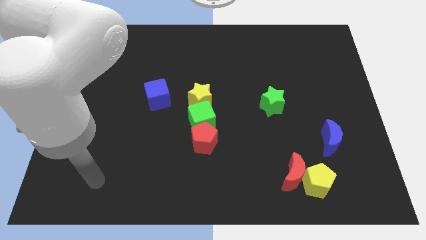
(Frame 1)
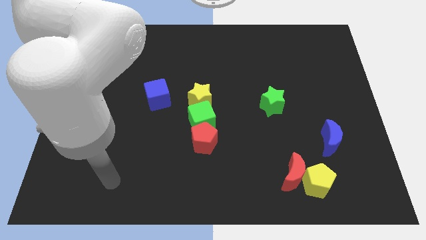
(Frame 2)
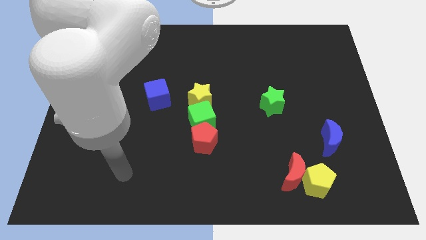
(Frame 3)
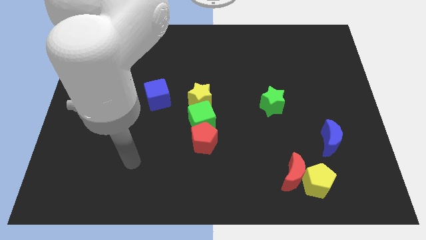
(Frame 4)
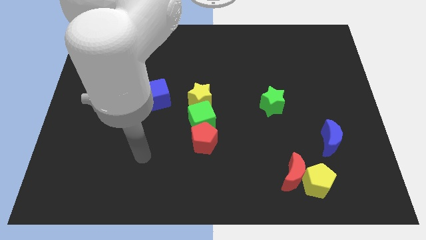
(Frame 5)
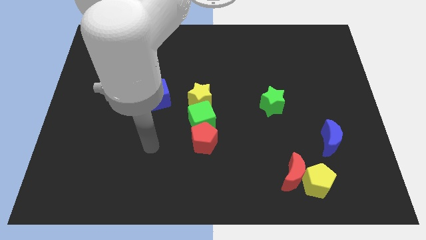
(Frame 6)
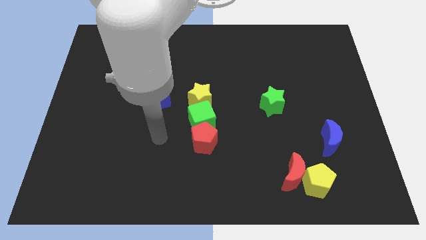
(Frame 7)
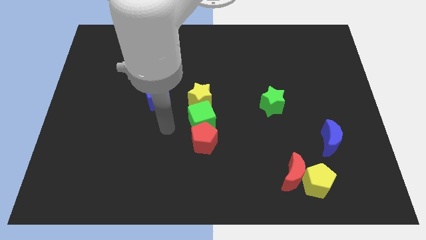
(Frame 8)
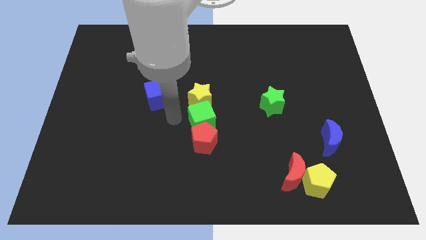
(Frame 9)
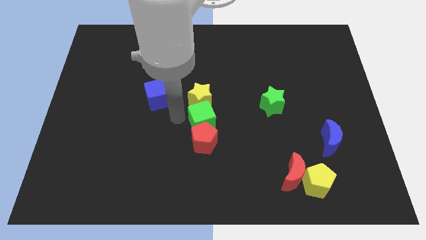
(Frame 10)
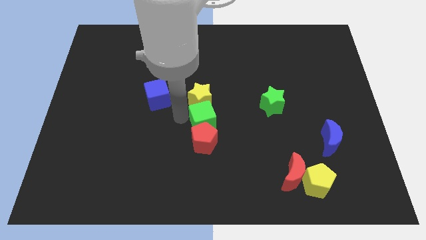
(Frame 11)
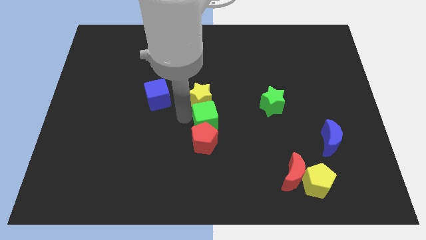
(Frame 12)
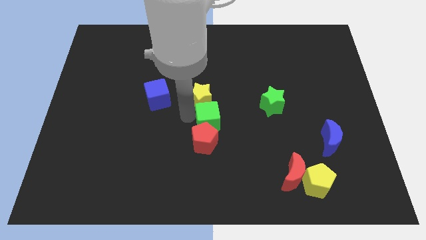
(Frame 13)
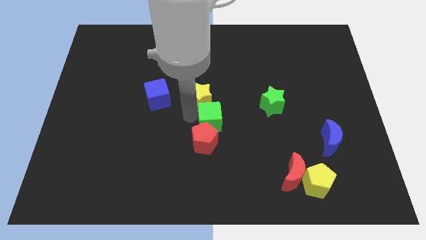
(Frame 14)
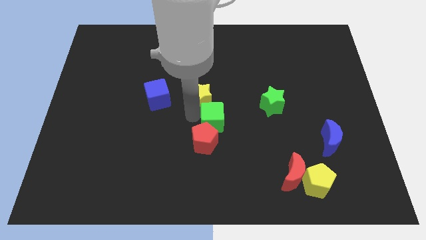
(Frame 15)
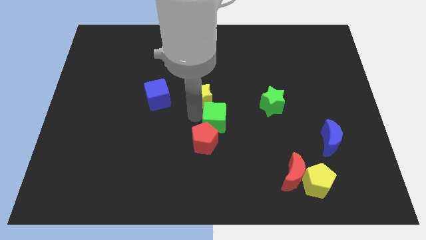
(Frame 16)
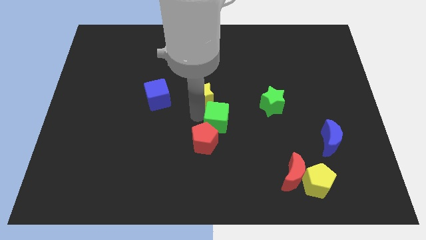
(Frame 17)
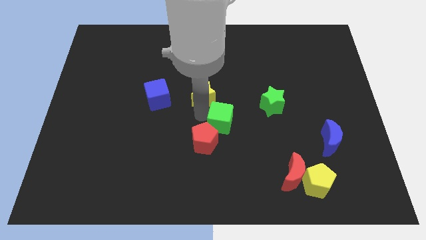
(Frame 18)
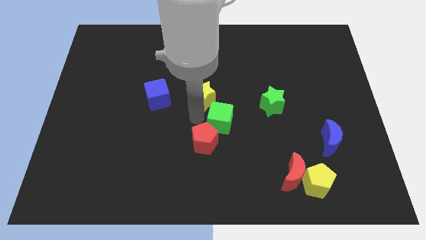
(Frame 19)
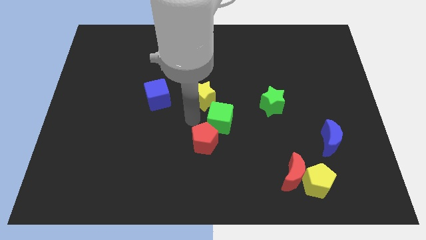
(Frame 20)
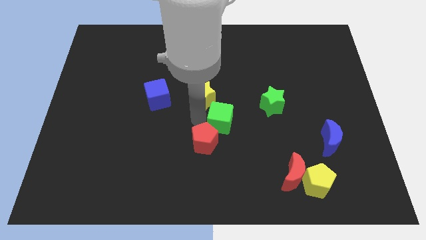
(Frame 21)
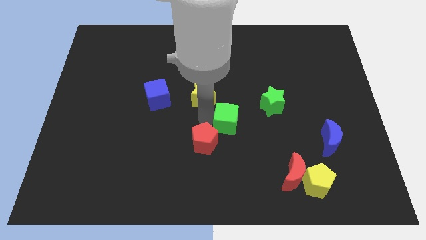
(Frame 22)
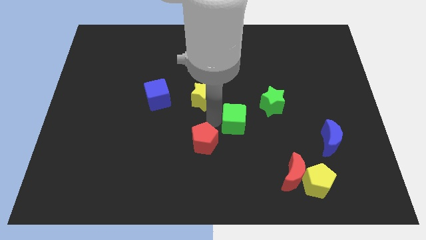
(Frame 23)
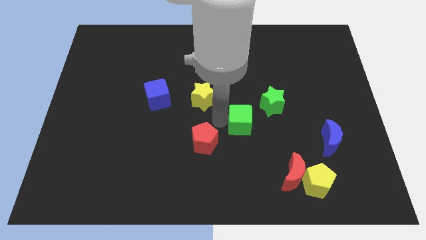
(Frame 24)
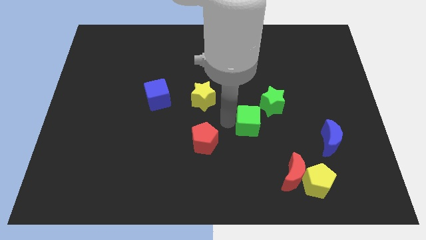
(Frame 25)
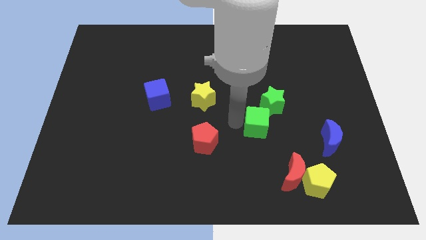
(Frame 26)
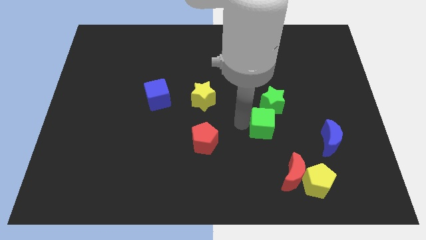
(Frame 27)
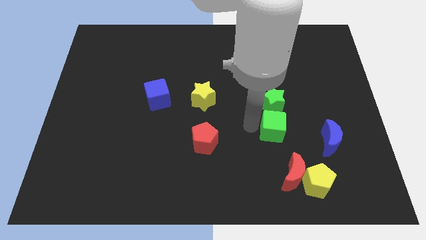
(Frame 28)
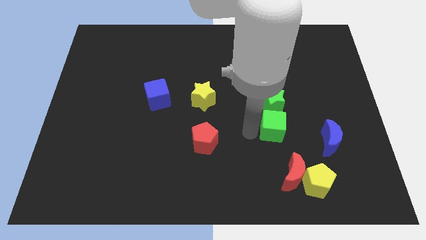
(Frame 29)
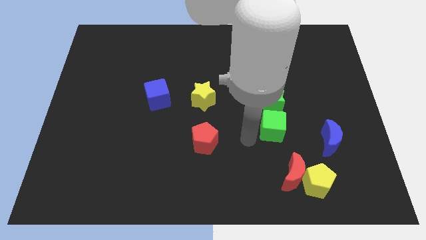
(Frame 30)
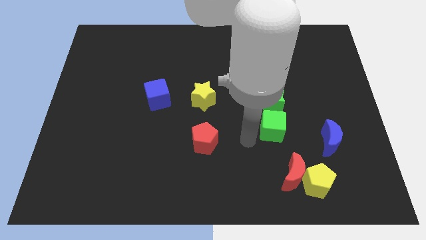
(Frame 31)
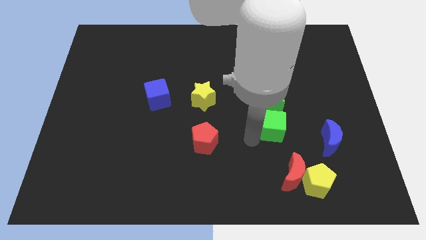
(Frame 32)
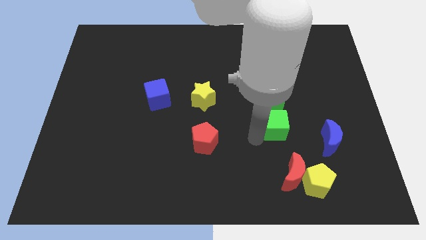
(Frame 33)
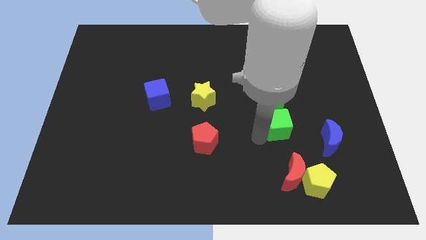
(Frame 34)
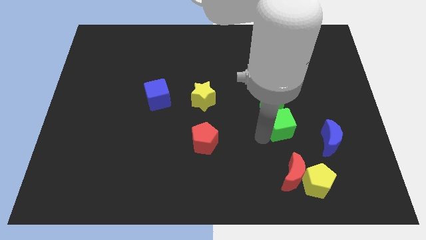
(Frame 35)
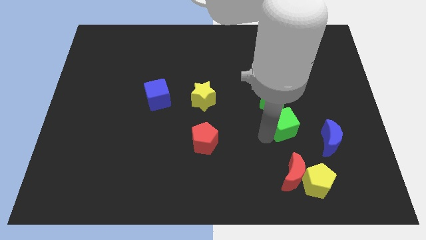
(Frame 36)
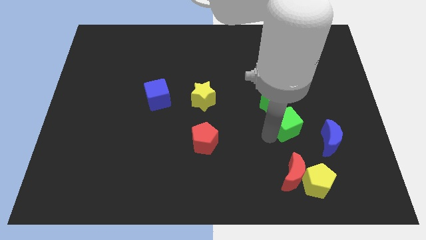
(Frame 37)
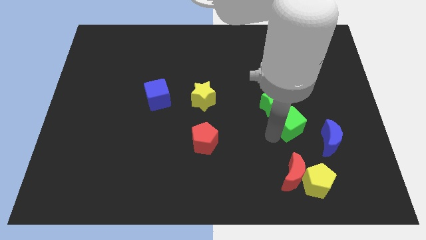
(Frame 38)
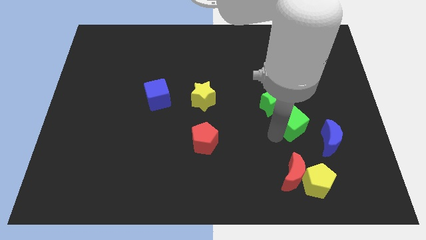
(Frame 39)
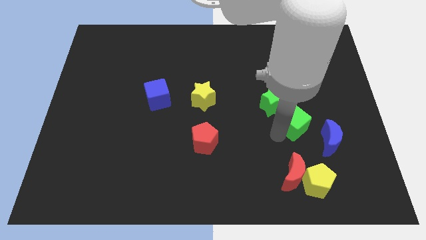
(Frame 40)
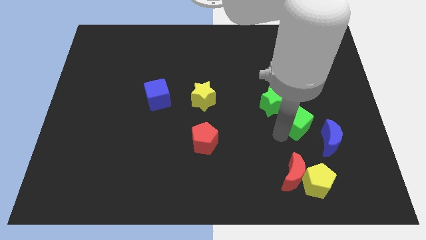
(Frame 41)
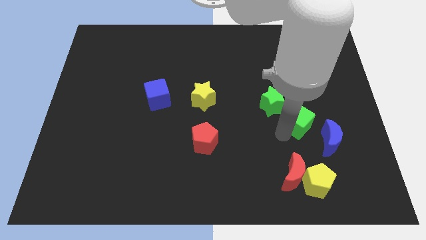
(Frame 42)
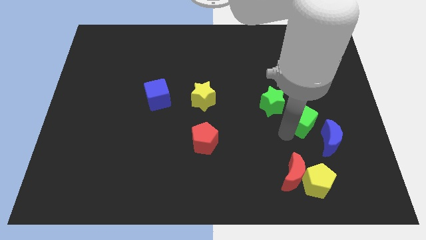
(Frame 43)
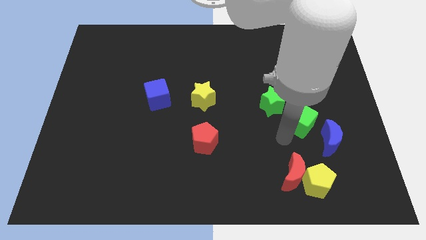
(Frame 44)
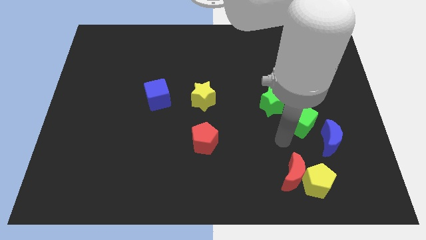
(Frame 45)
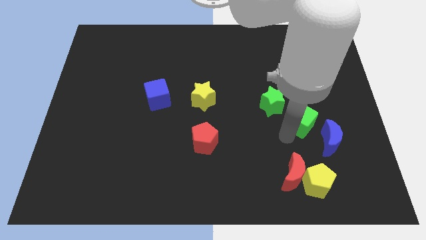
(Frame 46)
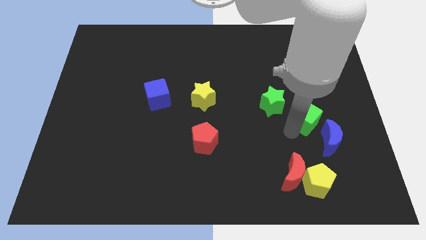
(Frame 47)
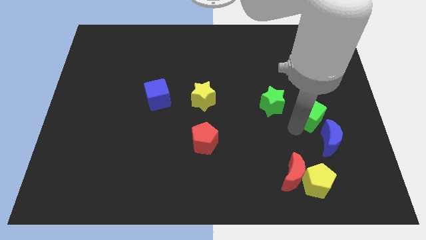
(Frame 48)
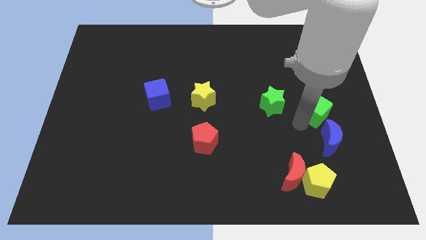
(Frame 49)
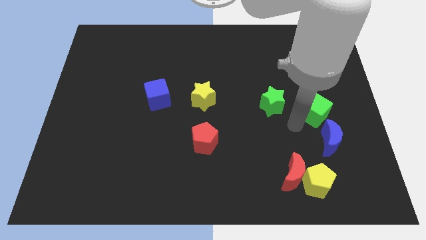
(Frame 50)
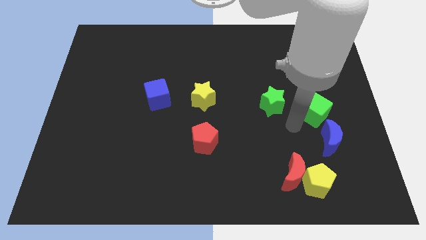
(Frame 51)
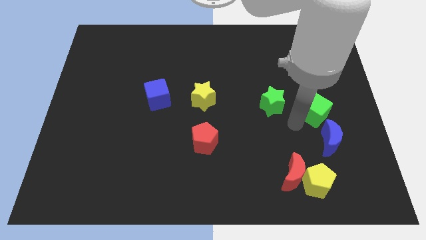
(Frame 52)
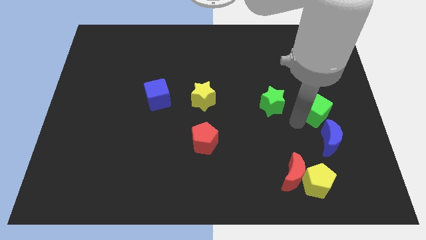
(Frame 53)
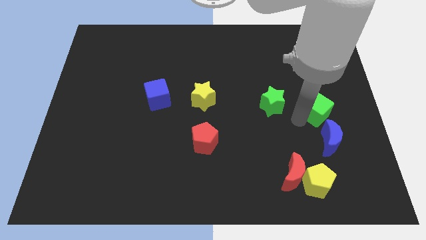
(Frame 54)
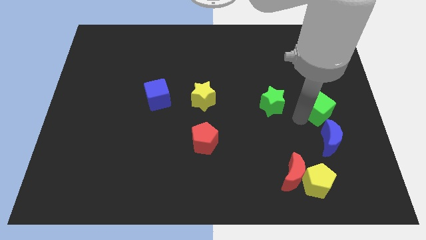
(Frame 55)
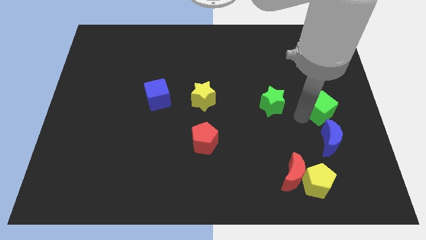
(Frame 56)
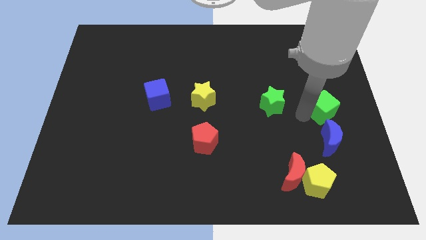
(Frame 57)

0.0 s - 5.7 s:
slide the green cube to the right side

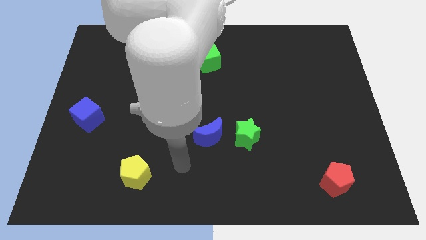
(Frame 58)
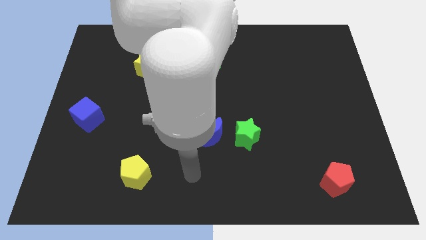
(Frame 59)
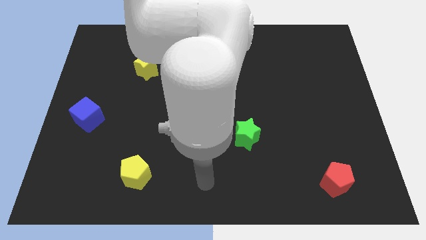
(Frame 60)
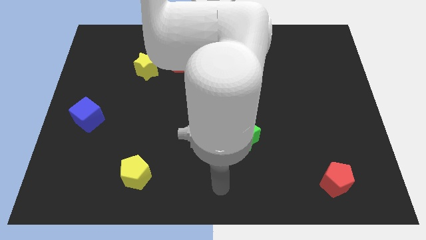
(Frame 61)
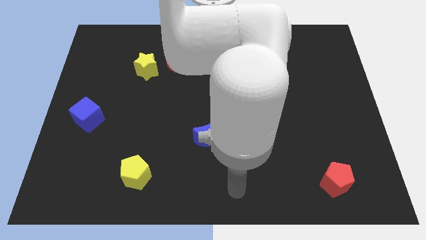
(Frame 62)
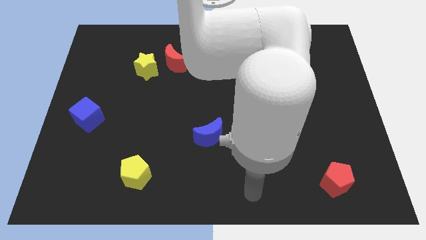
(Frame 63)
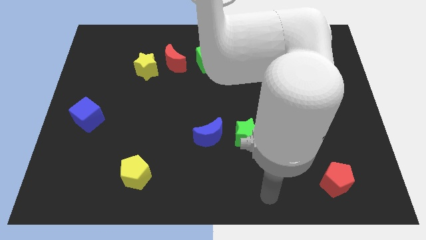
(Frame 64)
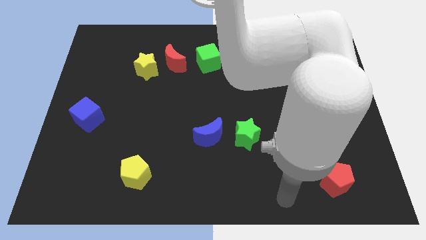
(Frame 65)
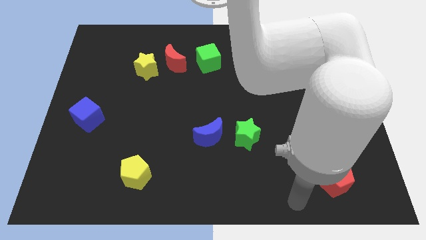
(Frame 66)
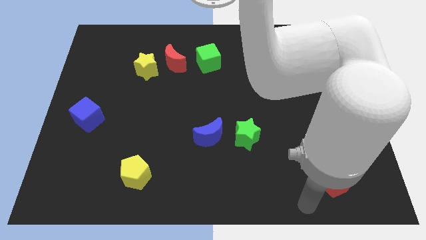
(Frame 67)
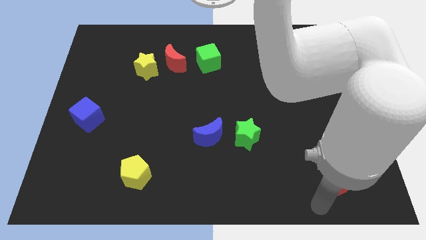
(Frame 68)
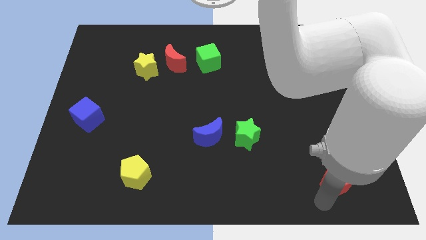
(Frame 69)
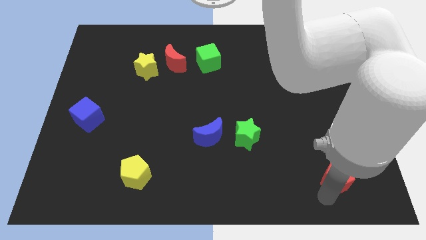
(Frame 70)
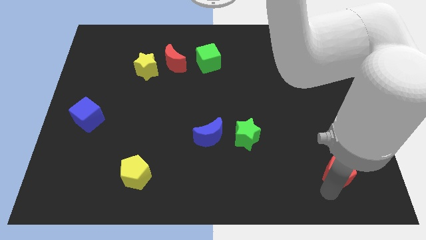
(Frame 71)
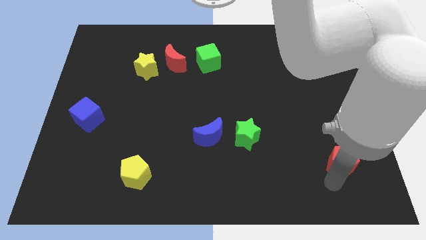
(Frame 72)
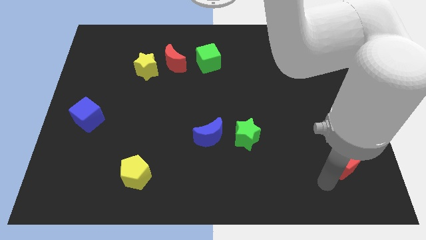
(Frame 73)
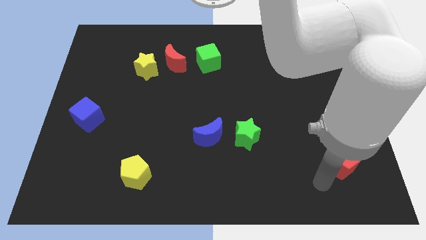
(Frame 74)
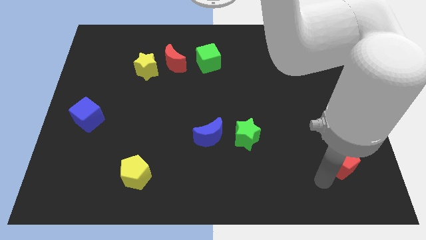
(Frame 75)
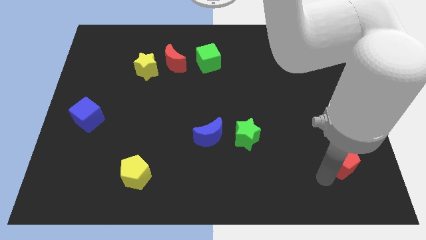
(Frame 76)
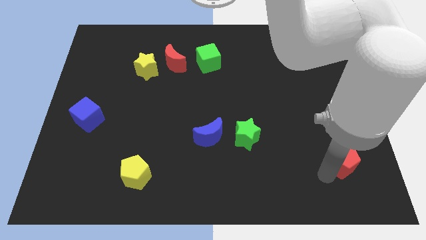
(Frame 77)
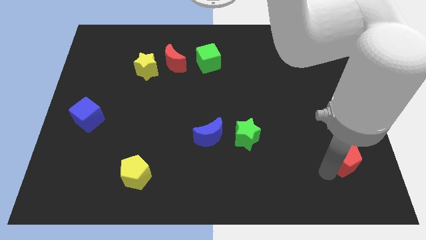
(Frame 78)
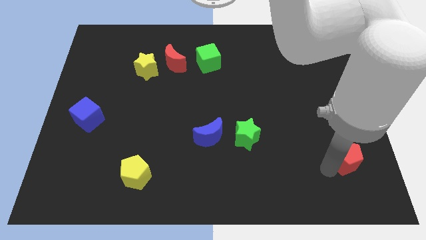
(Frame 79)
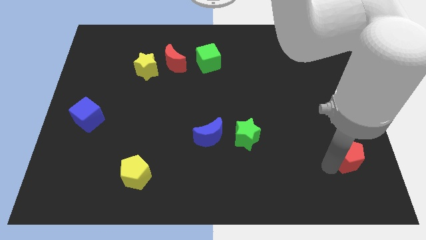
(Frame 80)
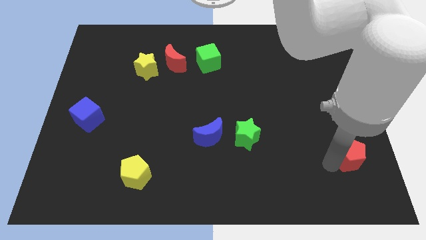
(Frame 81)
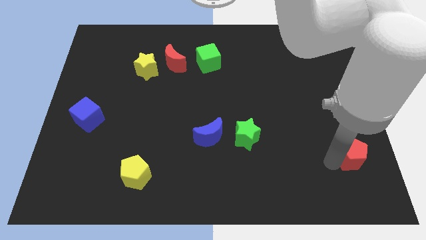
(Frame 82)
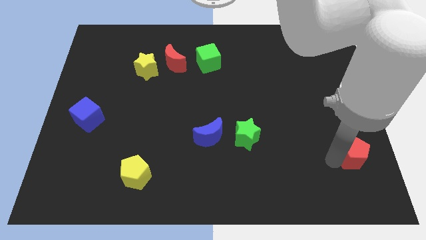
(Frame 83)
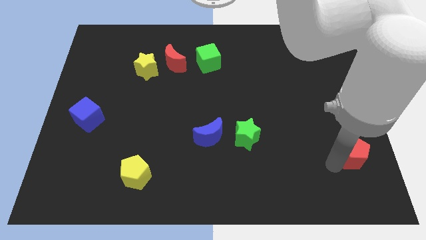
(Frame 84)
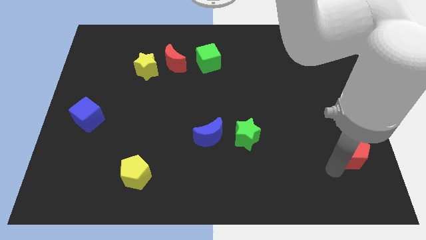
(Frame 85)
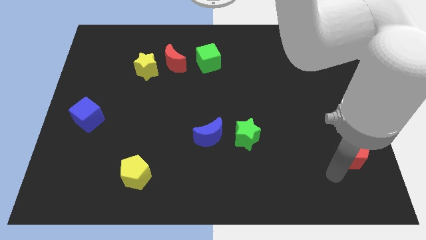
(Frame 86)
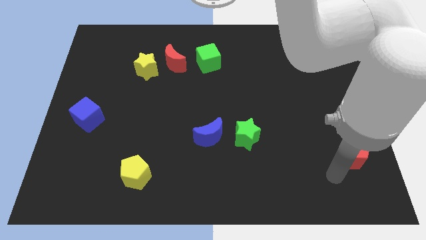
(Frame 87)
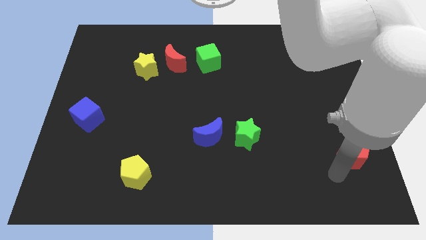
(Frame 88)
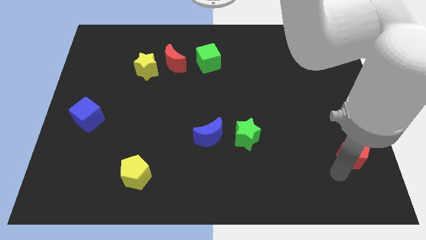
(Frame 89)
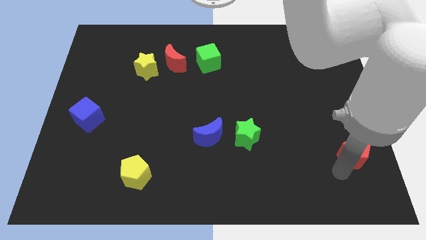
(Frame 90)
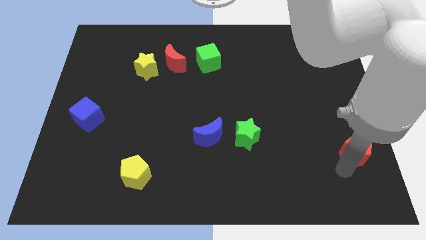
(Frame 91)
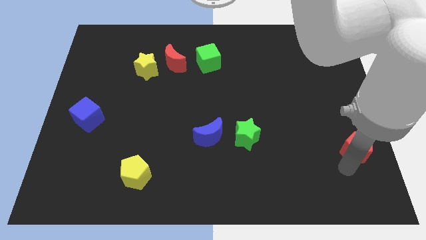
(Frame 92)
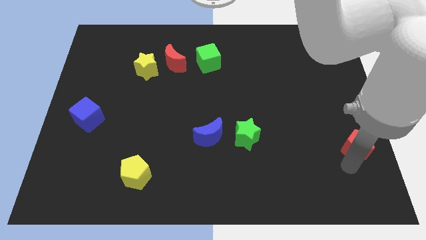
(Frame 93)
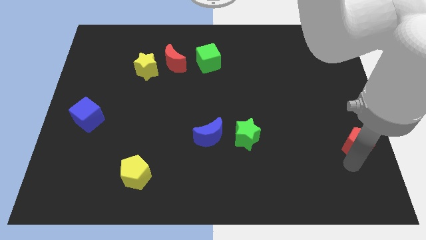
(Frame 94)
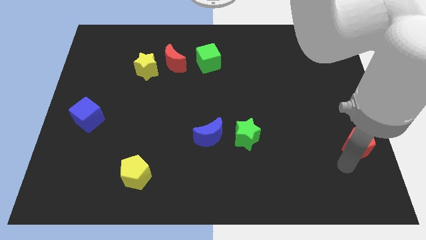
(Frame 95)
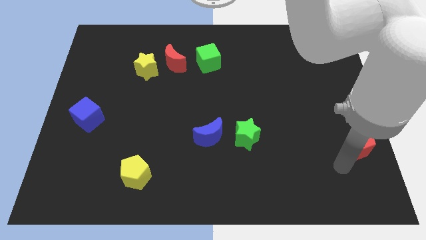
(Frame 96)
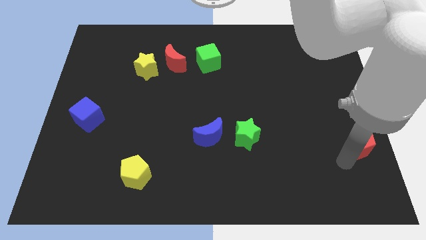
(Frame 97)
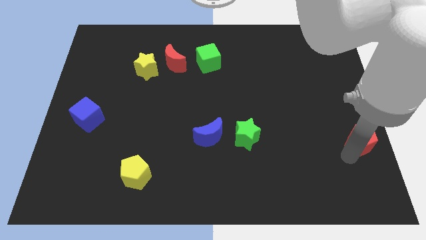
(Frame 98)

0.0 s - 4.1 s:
put the red pentagon to the right side of the board
